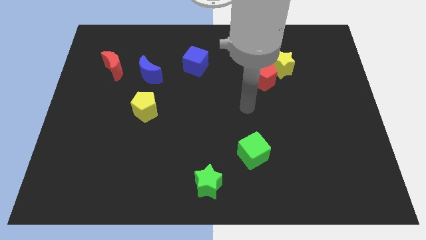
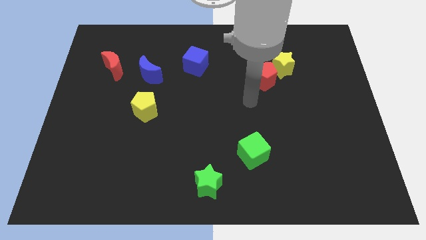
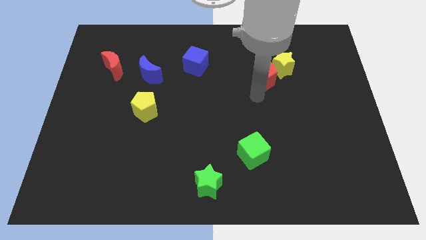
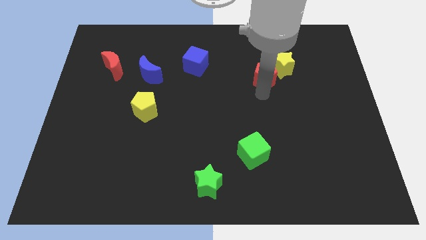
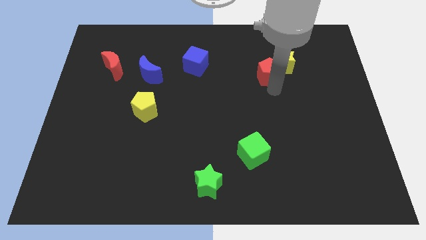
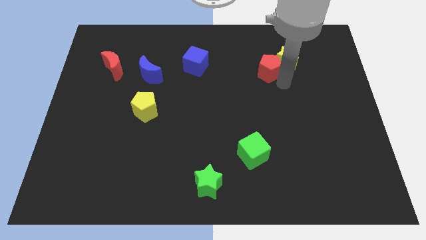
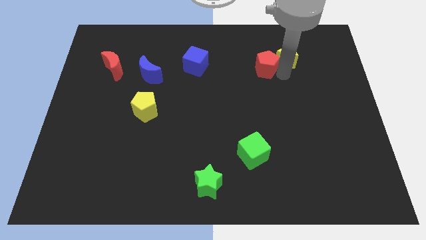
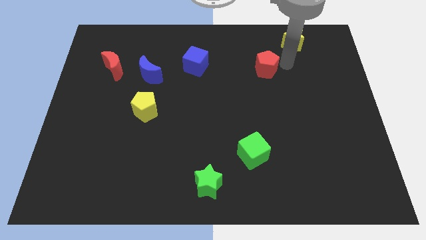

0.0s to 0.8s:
separate the red pentagon from the yellow star

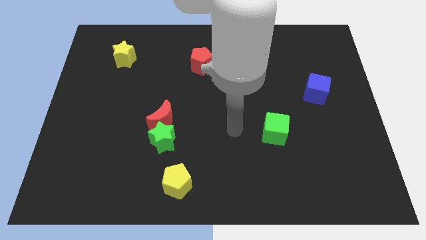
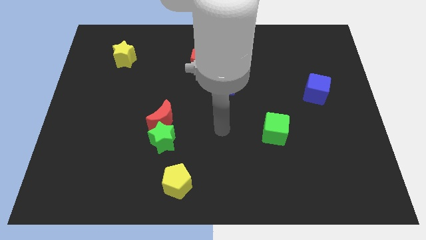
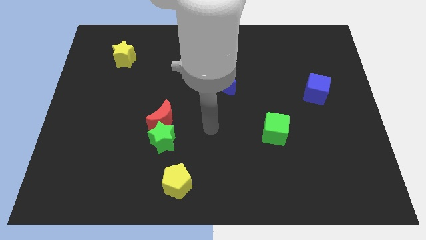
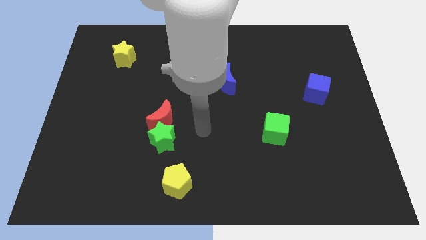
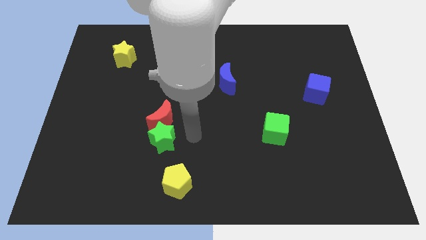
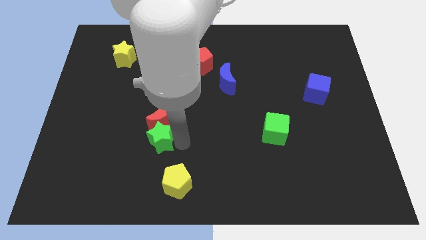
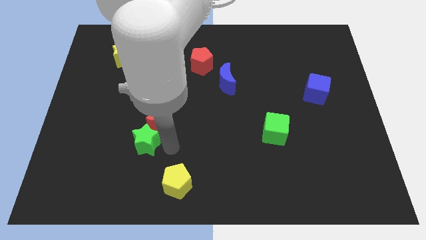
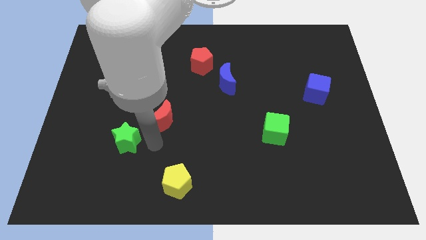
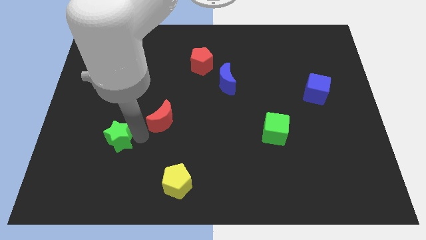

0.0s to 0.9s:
move the red moon away from the green star

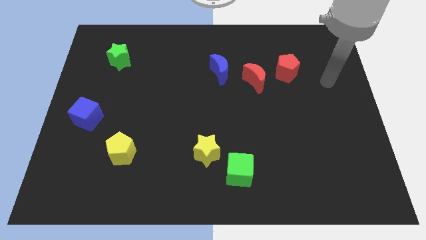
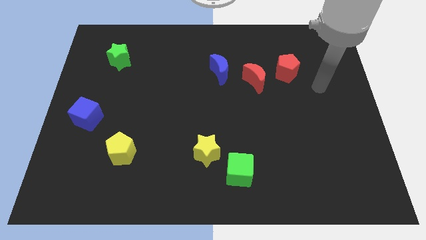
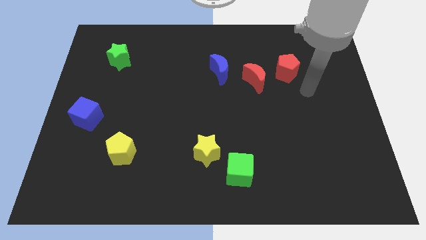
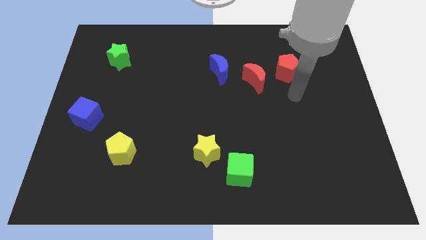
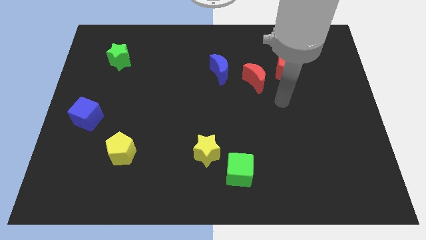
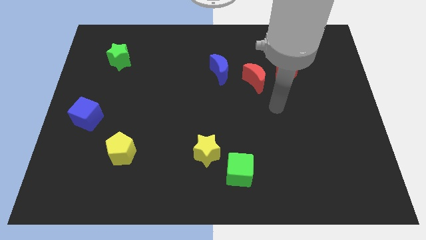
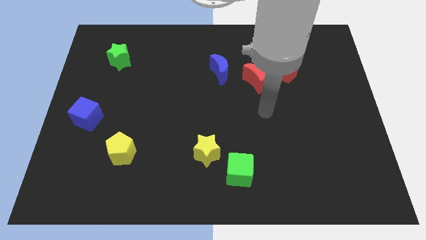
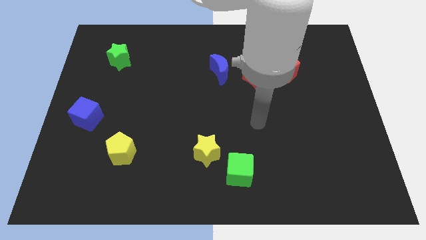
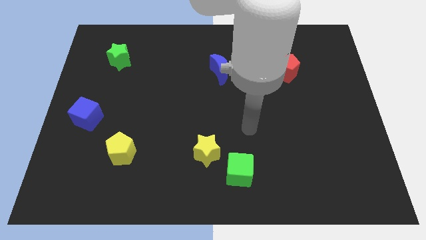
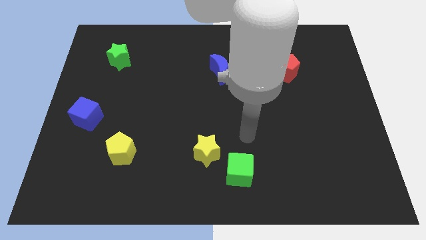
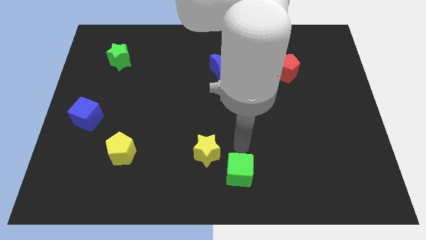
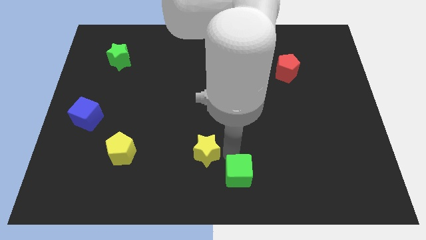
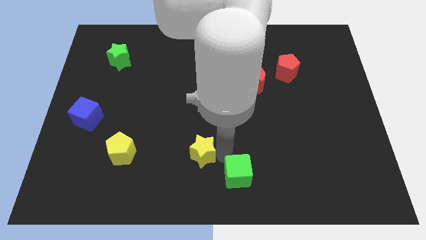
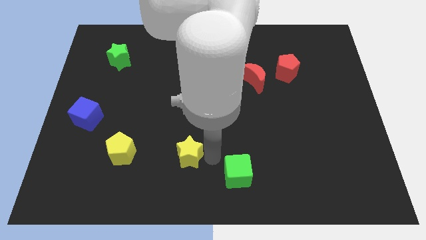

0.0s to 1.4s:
separate the green cube from the yellow star

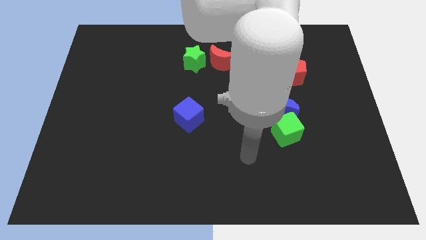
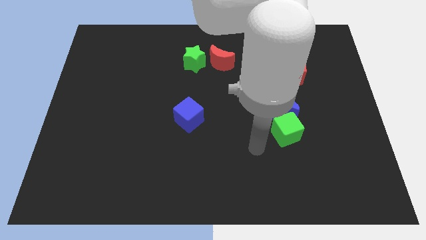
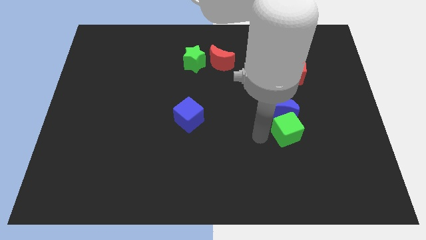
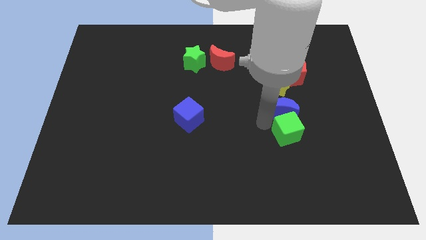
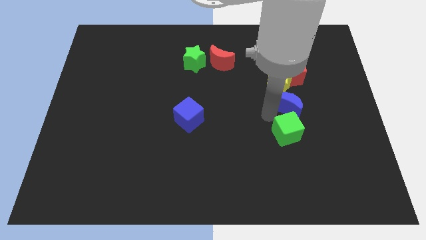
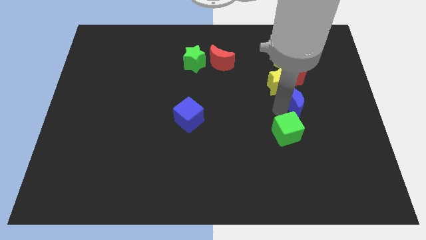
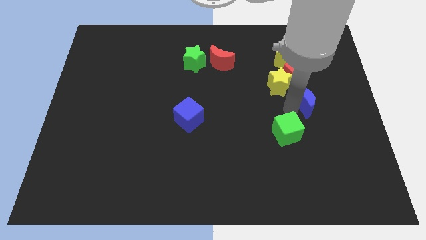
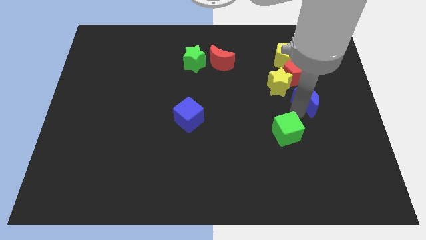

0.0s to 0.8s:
separate the green cube from the blue moon

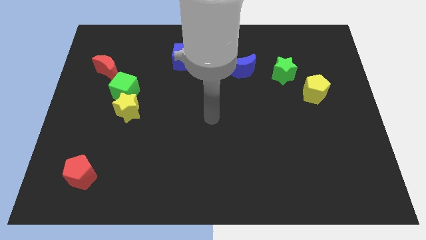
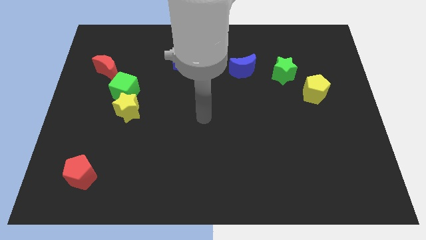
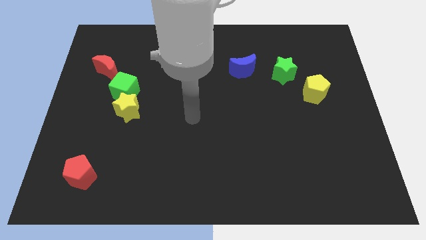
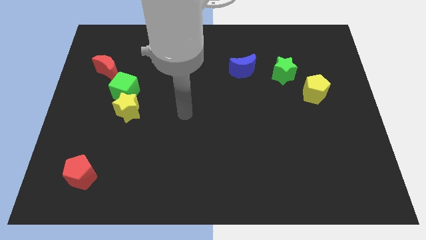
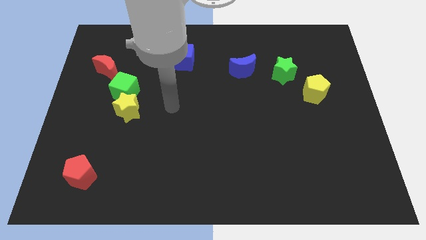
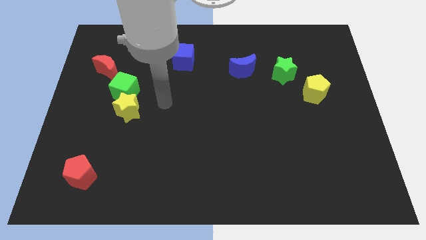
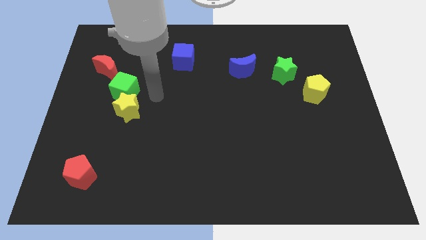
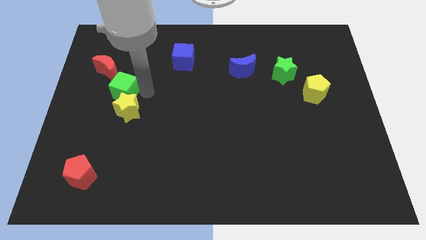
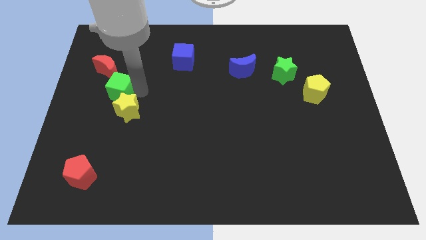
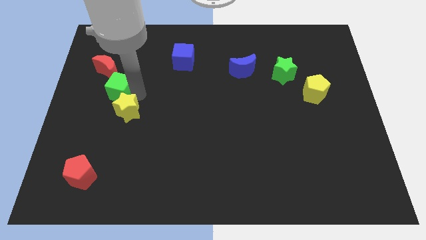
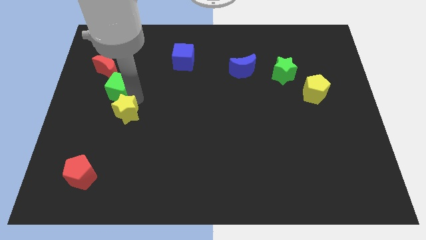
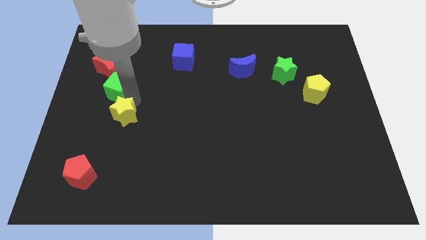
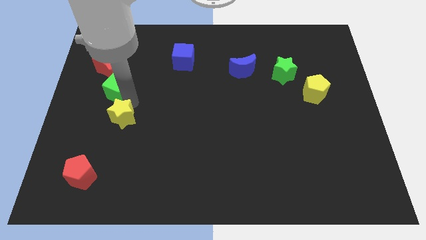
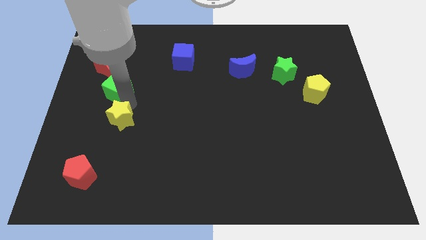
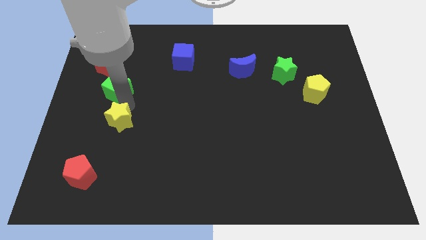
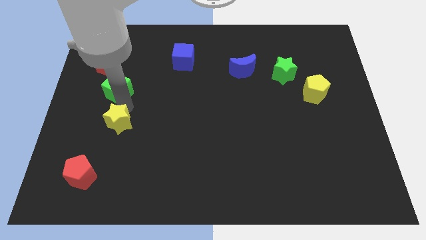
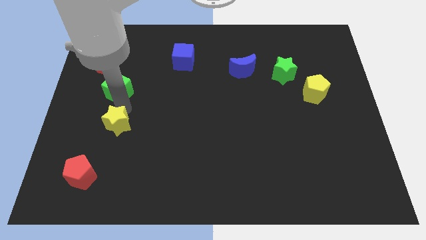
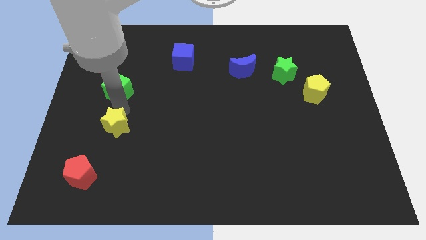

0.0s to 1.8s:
move the yellow star away from the green cube

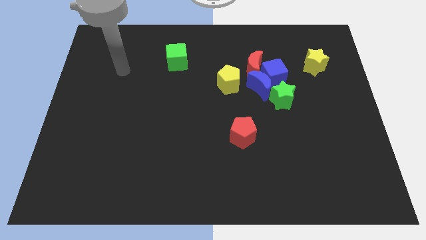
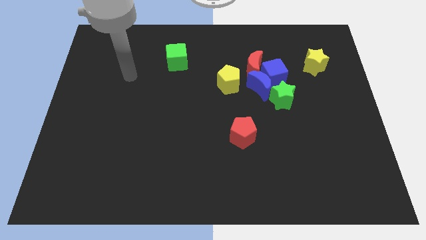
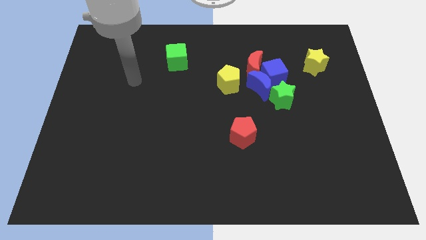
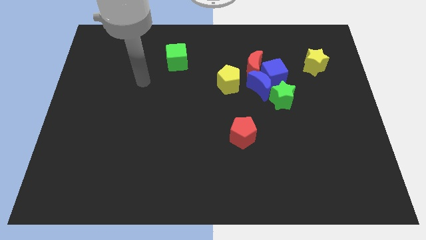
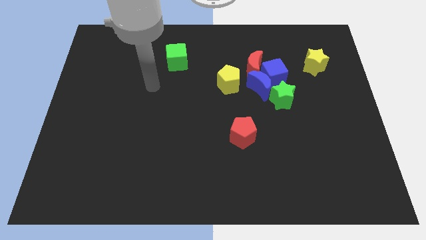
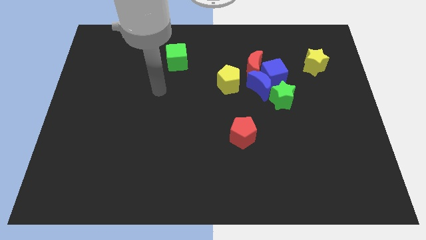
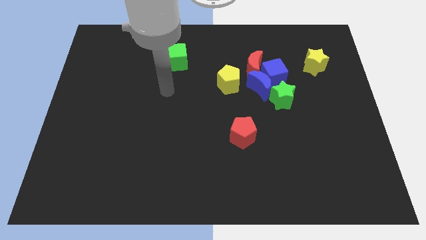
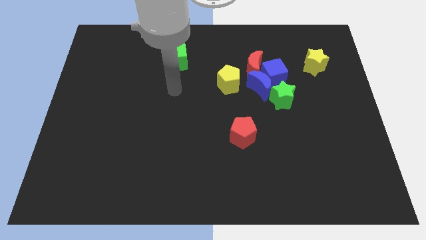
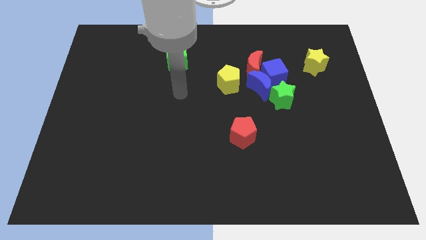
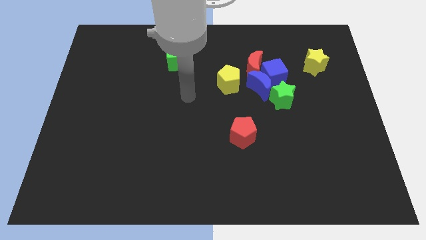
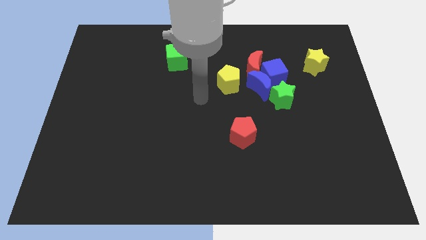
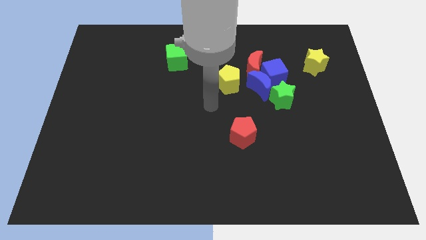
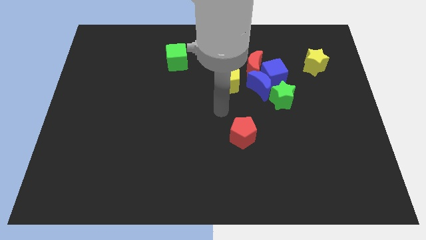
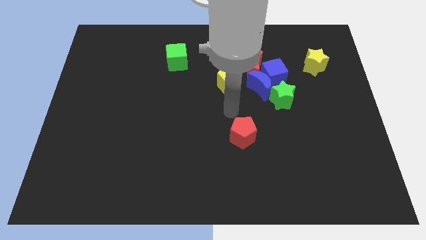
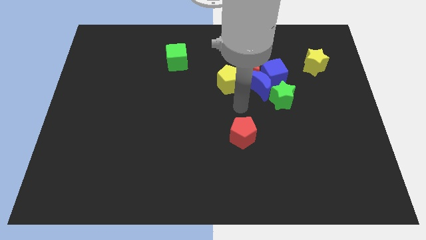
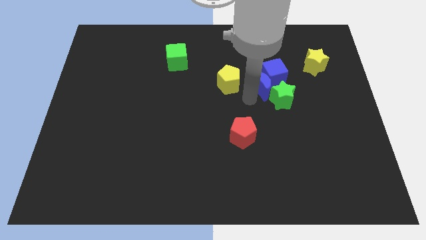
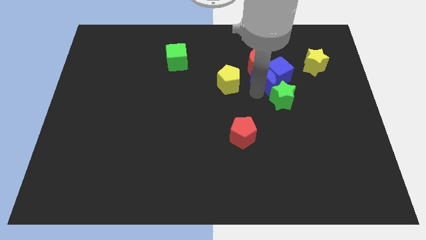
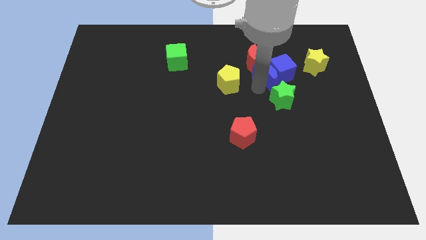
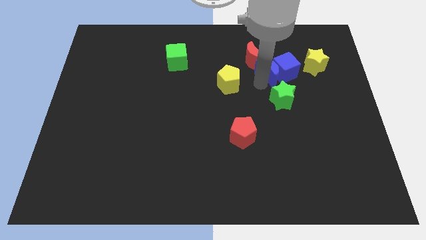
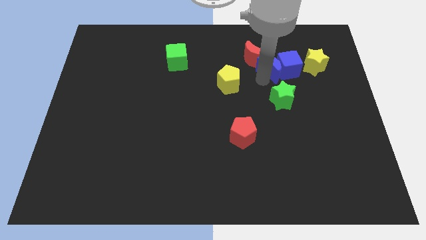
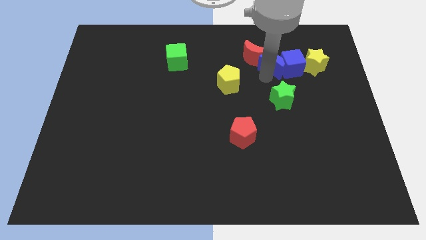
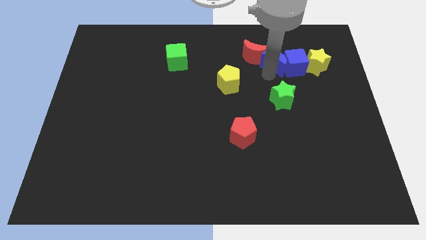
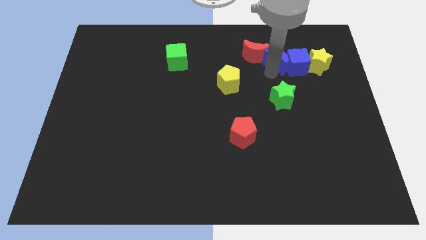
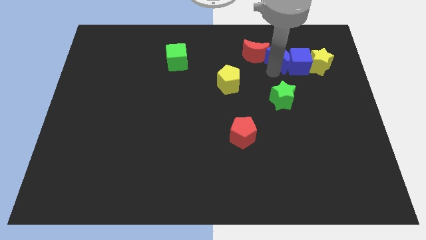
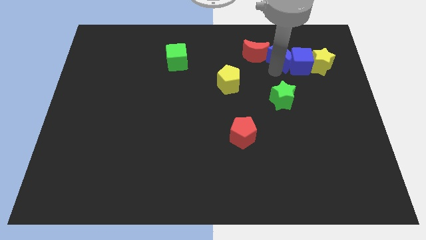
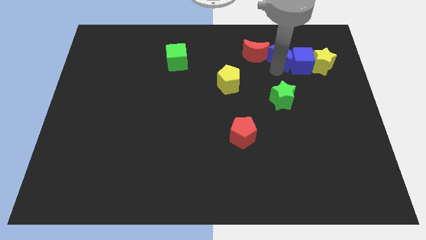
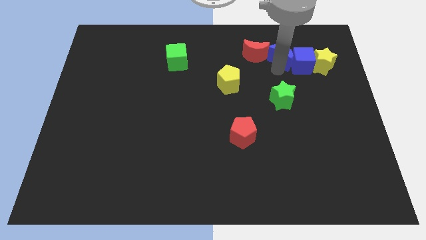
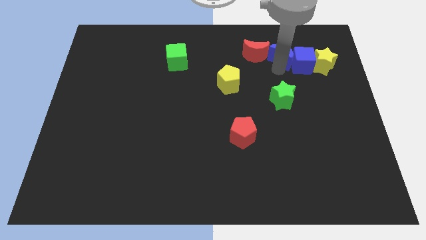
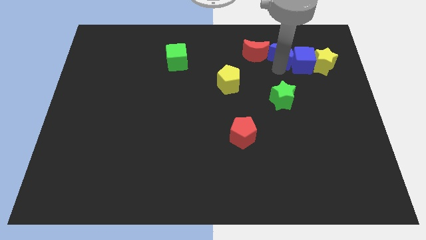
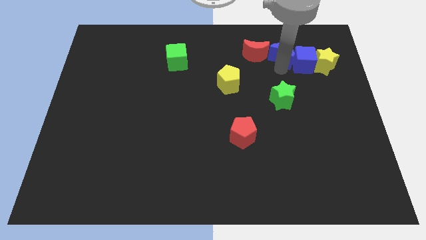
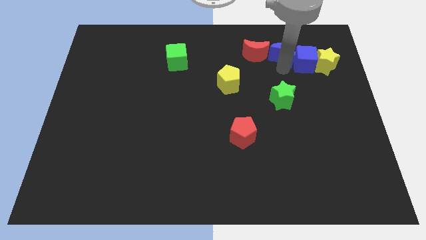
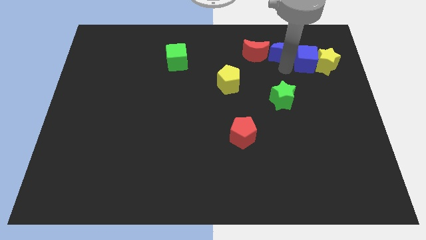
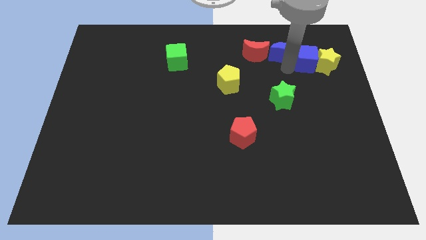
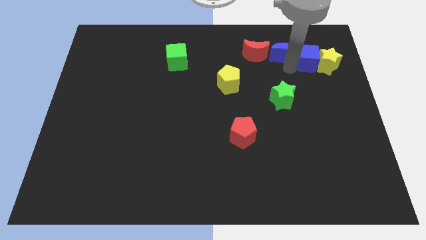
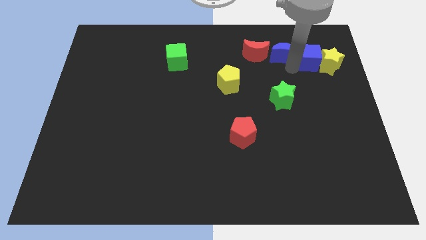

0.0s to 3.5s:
separate the blue cube from the blue moon, red moon, and green star
